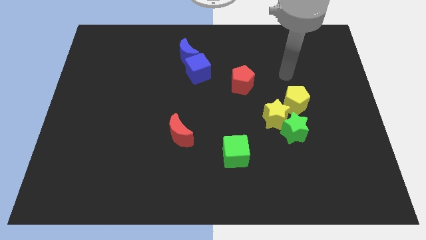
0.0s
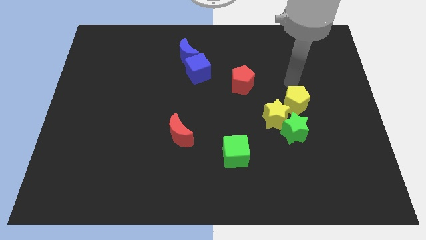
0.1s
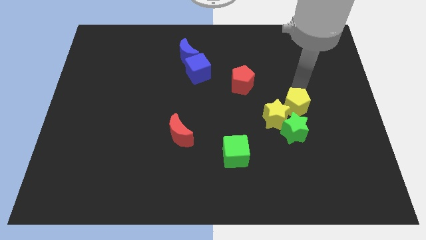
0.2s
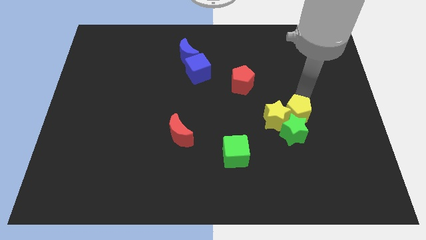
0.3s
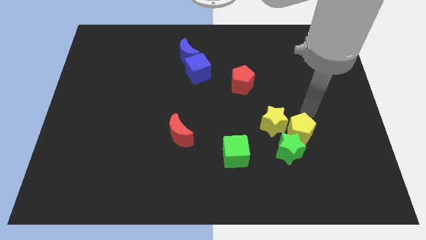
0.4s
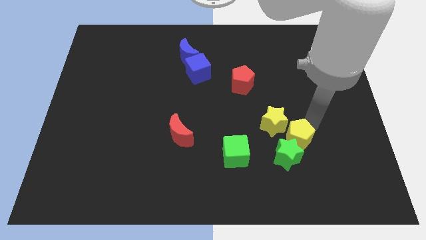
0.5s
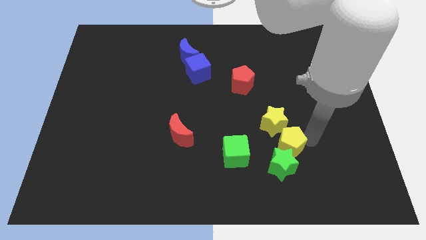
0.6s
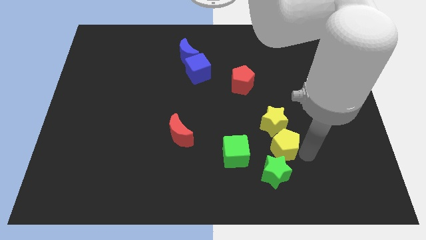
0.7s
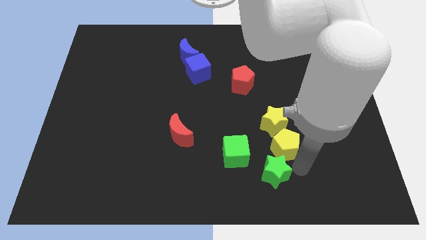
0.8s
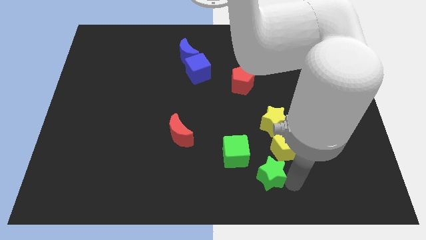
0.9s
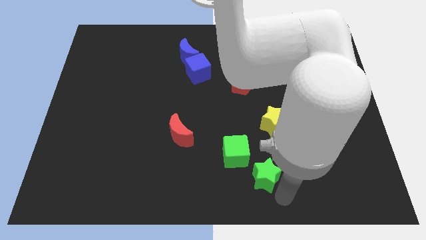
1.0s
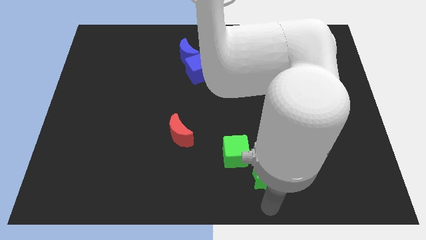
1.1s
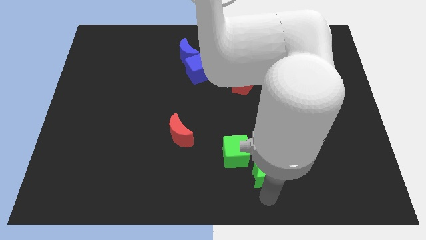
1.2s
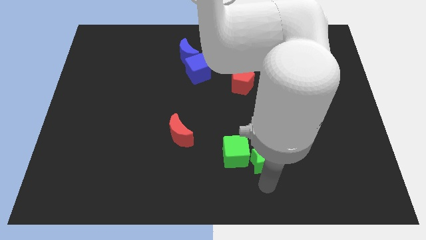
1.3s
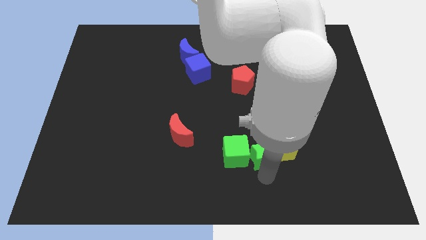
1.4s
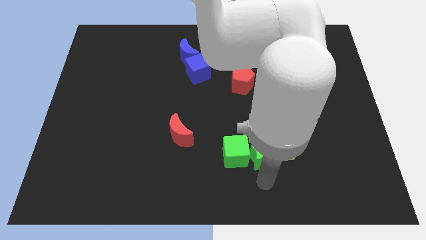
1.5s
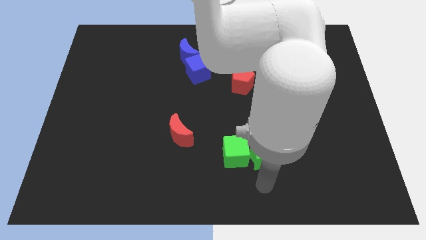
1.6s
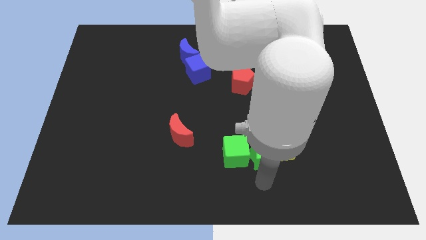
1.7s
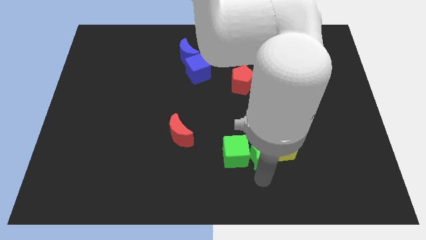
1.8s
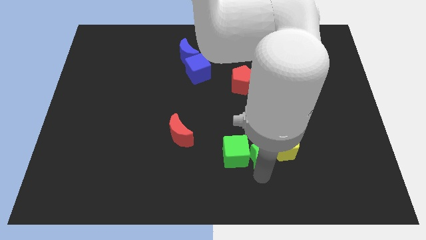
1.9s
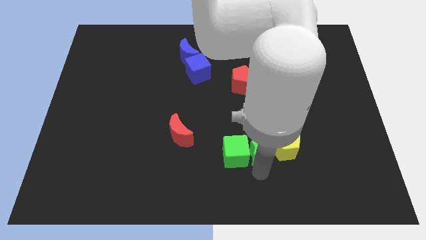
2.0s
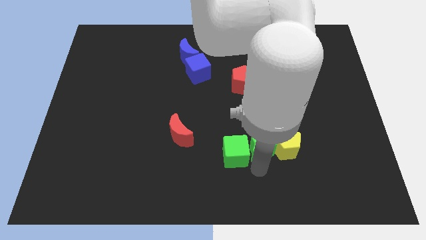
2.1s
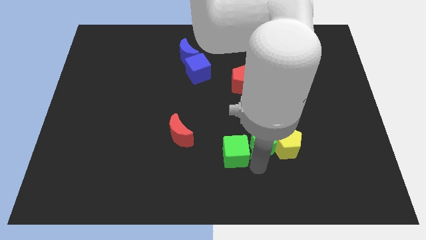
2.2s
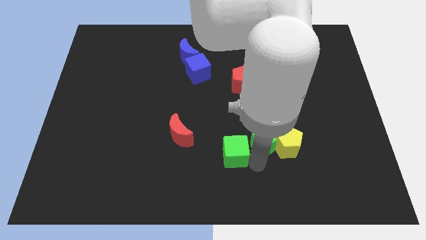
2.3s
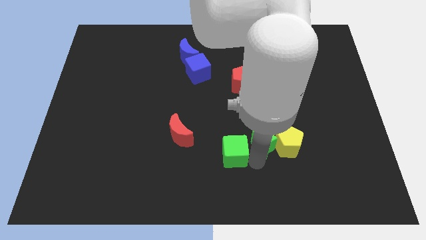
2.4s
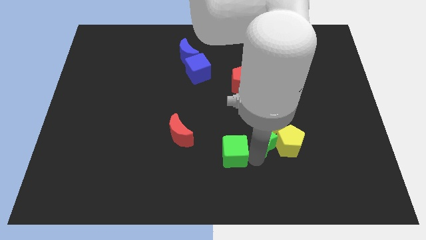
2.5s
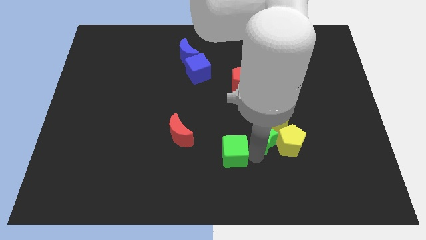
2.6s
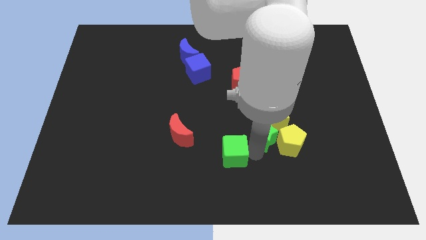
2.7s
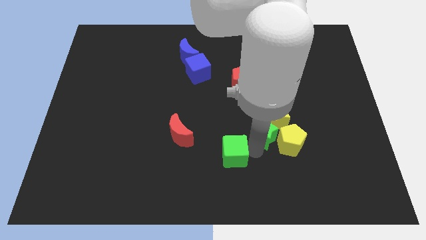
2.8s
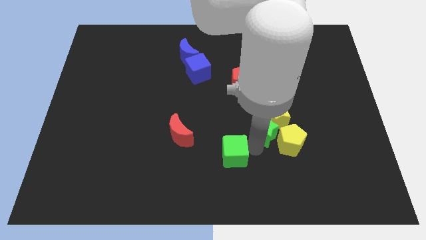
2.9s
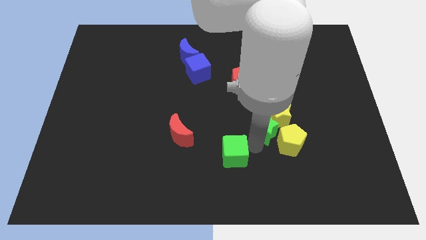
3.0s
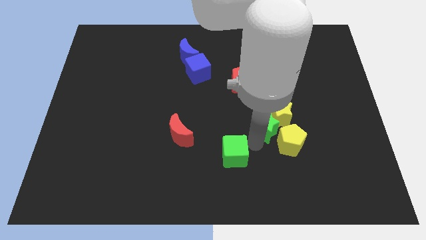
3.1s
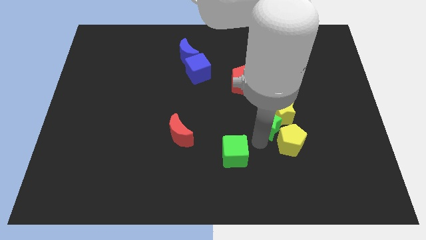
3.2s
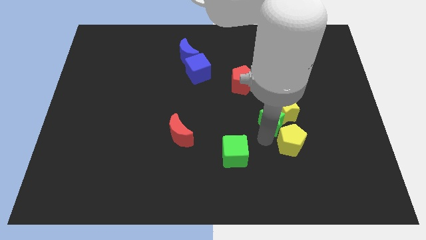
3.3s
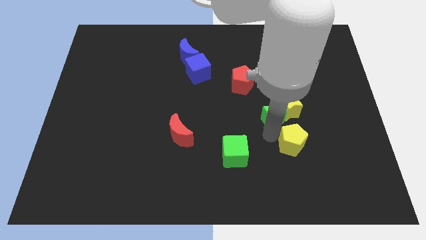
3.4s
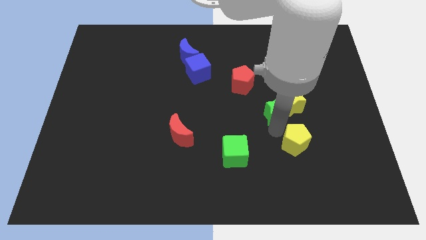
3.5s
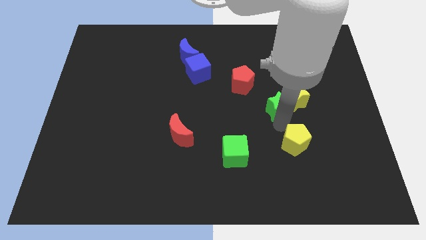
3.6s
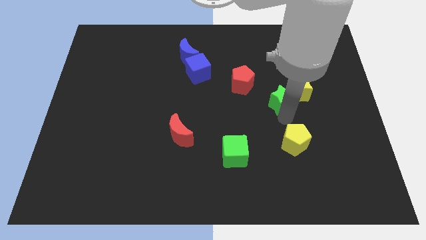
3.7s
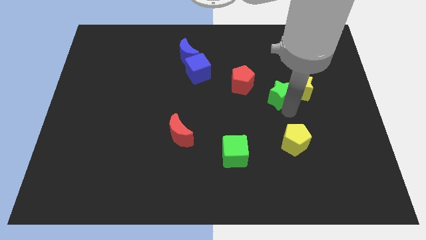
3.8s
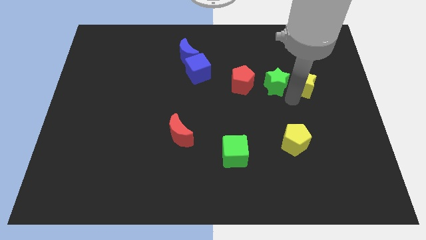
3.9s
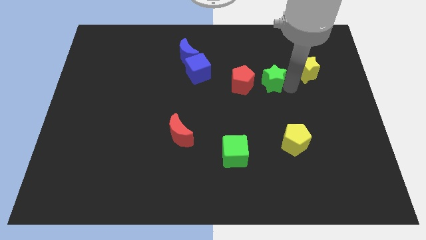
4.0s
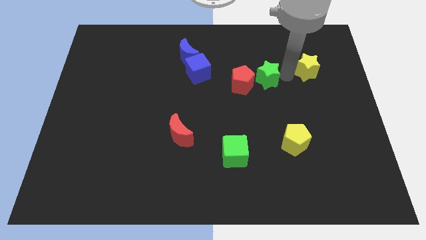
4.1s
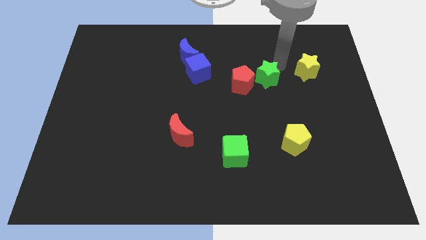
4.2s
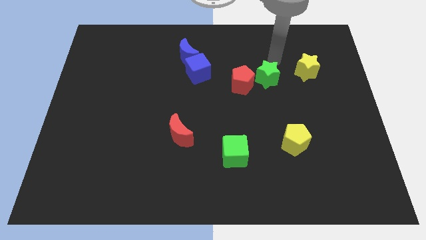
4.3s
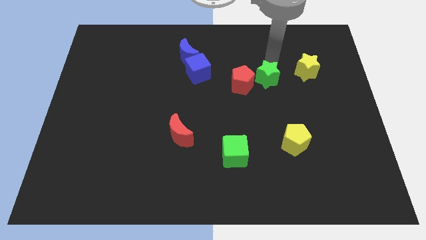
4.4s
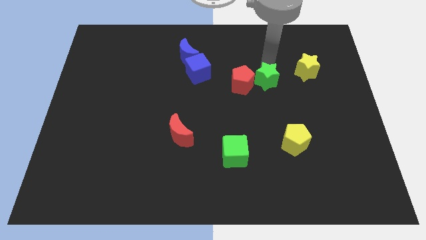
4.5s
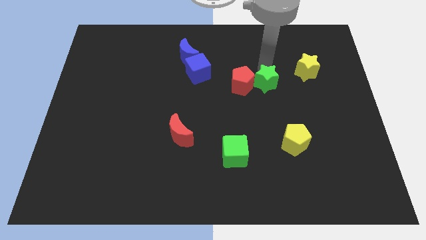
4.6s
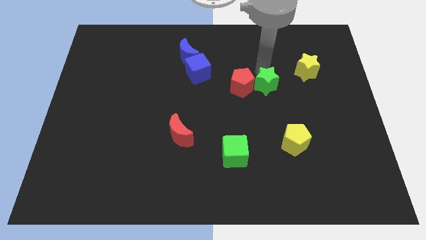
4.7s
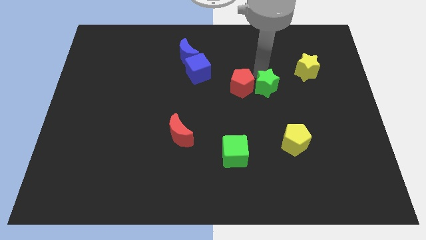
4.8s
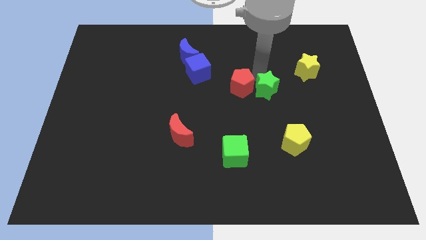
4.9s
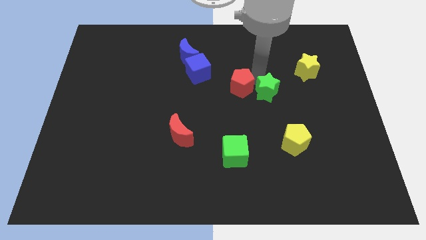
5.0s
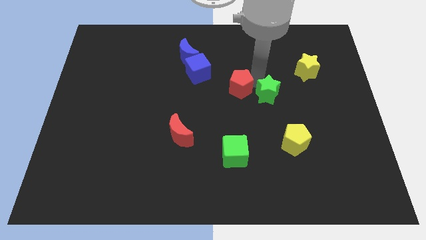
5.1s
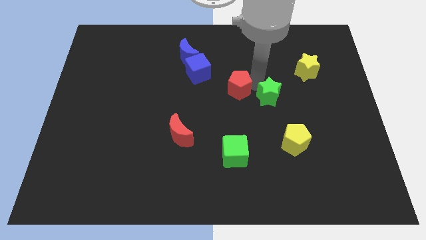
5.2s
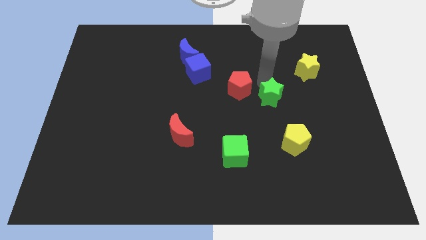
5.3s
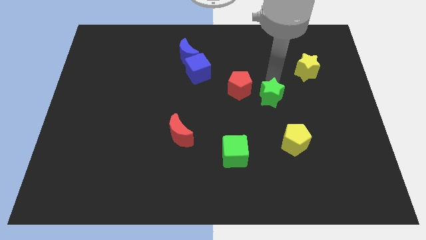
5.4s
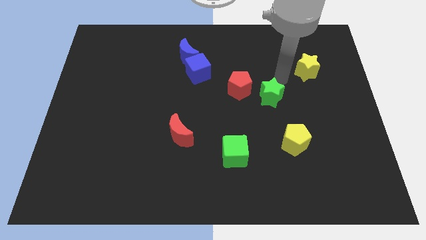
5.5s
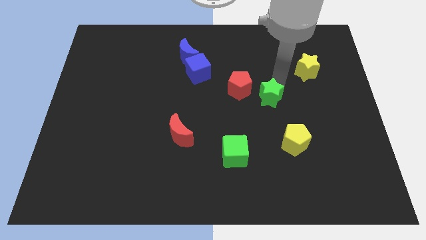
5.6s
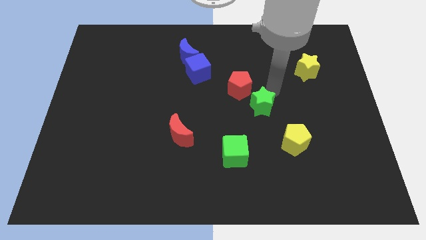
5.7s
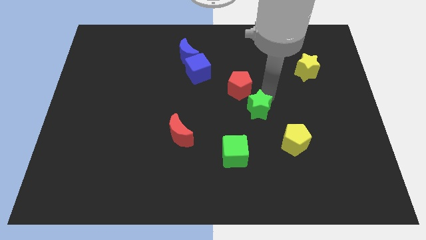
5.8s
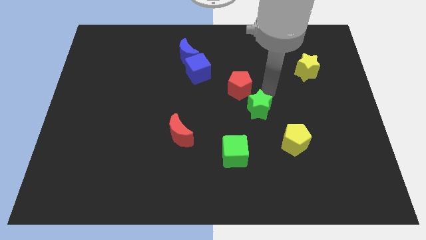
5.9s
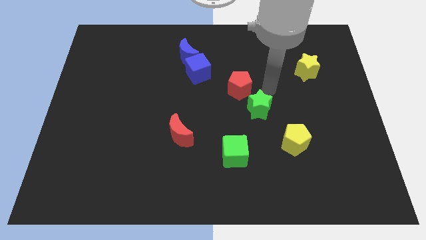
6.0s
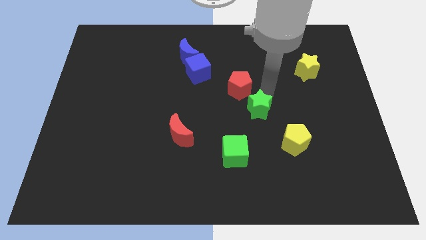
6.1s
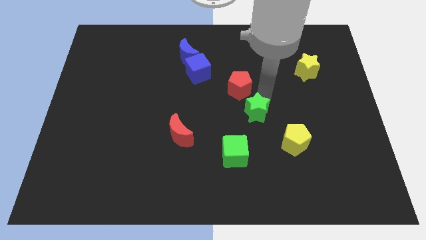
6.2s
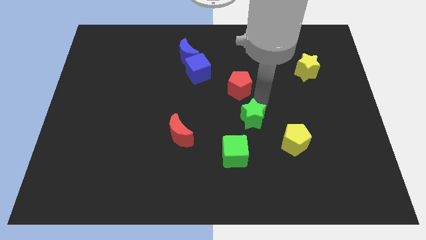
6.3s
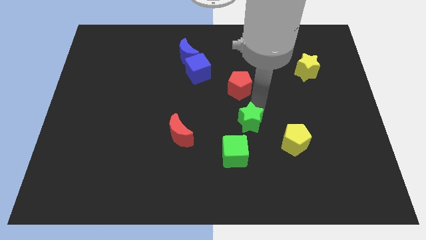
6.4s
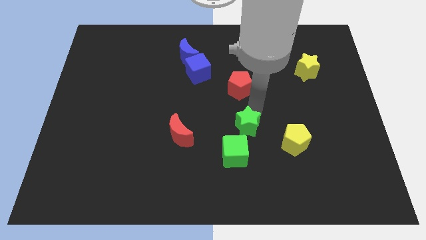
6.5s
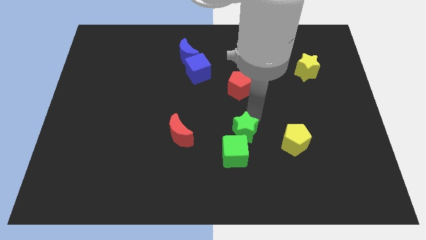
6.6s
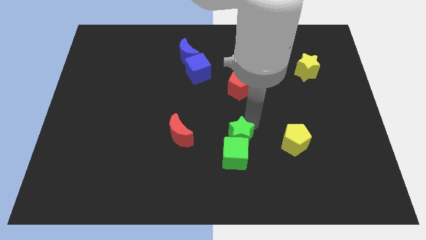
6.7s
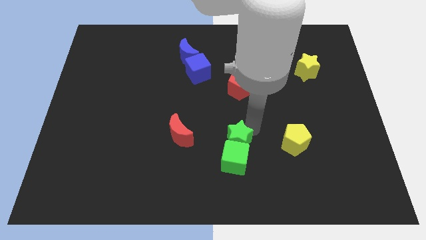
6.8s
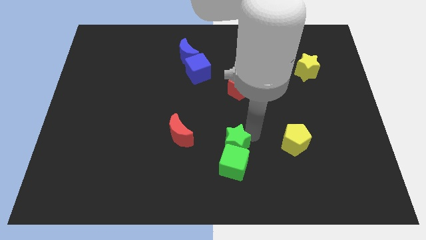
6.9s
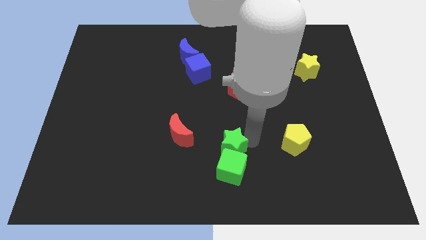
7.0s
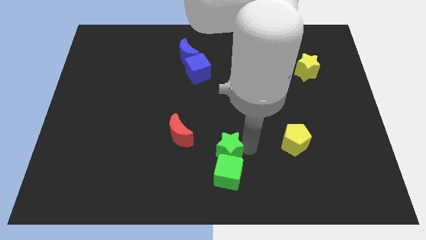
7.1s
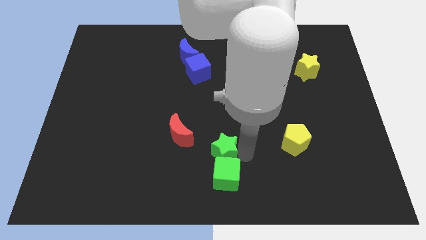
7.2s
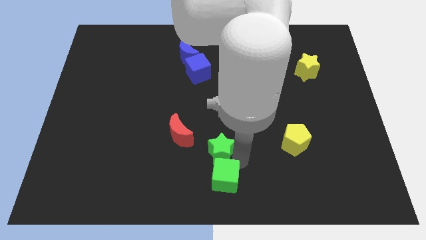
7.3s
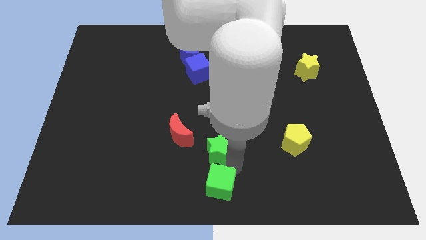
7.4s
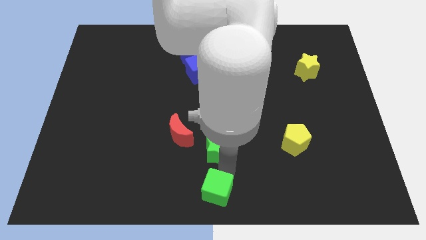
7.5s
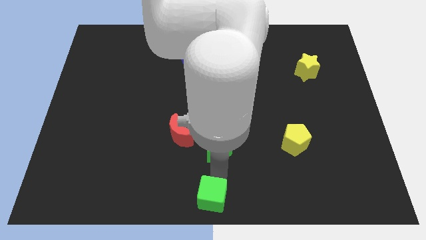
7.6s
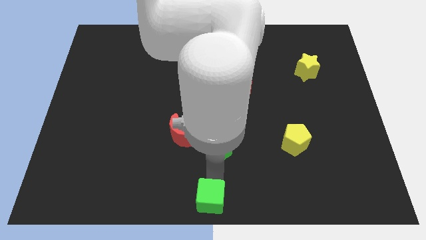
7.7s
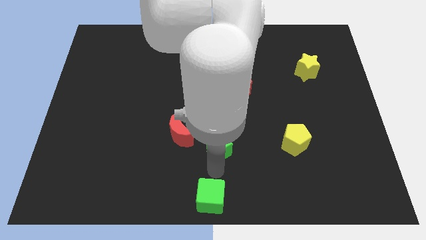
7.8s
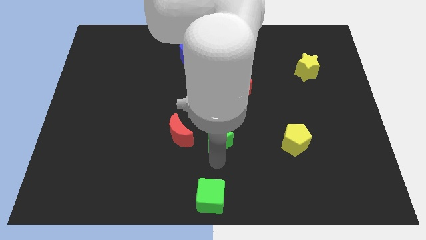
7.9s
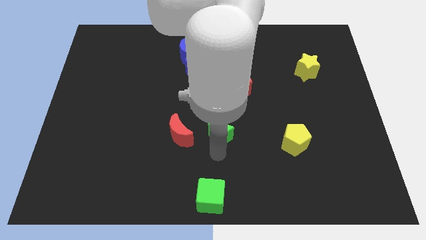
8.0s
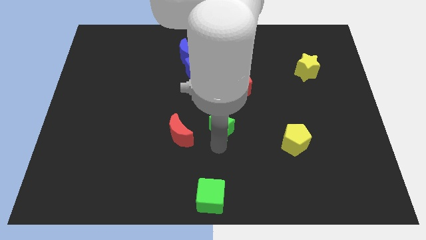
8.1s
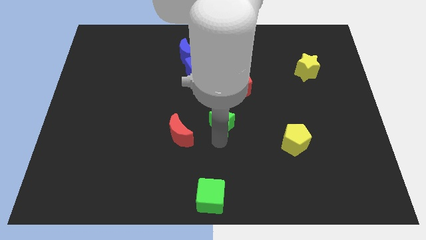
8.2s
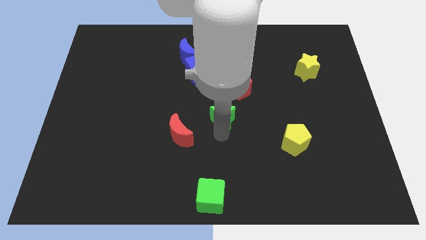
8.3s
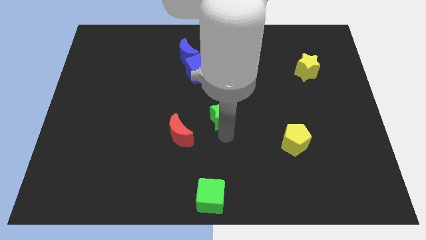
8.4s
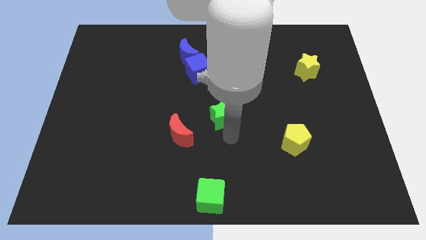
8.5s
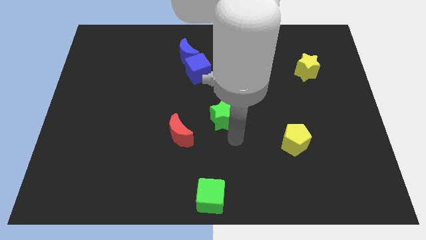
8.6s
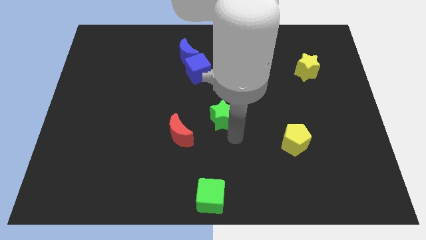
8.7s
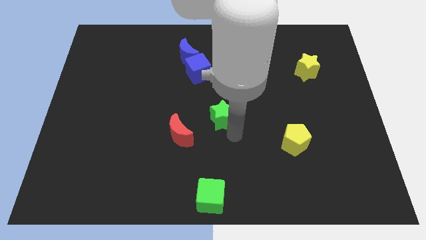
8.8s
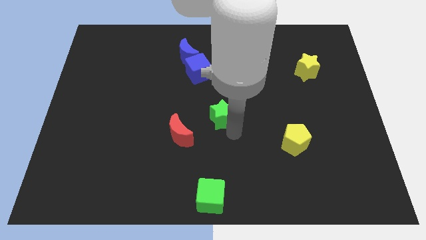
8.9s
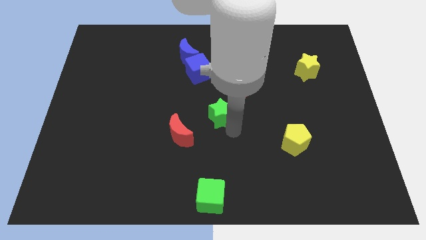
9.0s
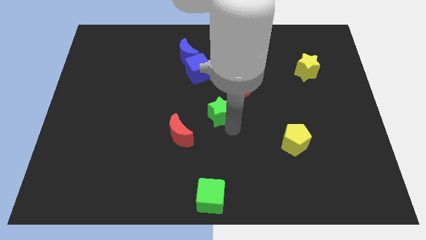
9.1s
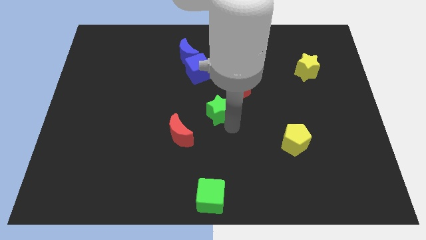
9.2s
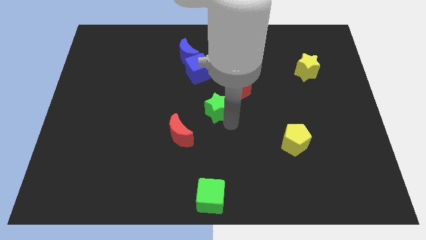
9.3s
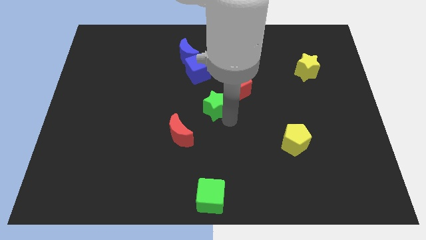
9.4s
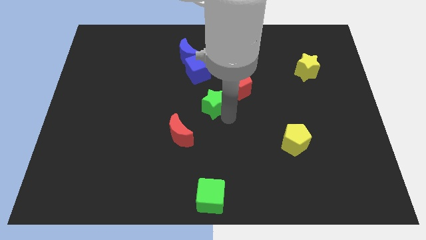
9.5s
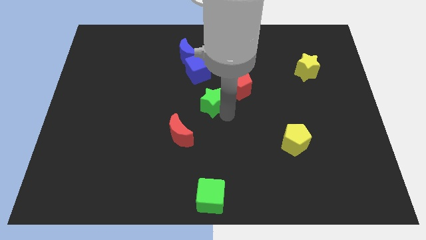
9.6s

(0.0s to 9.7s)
move the green star just left of the red pentagon
